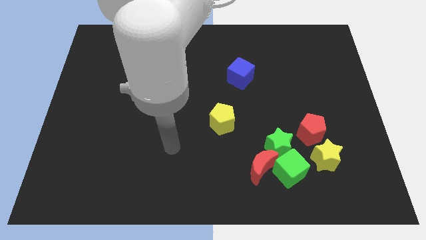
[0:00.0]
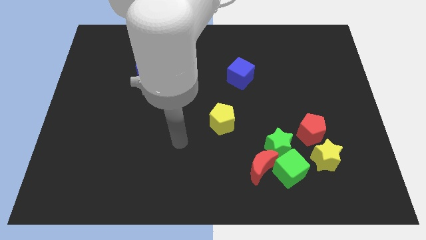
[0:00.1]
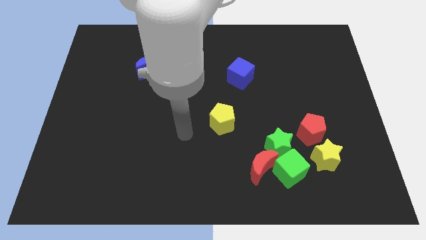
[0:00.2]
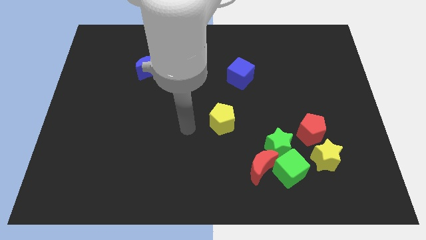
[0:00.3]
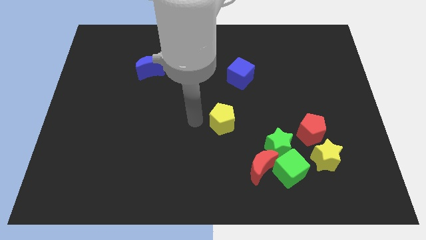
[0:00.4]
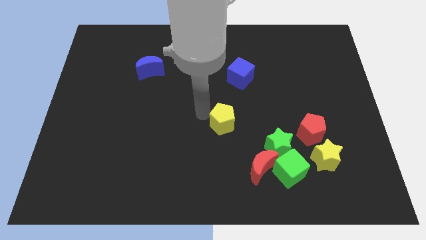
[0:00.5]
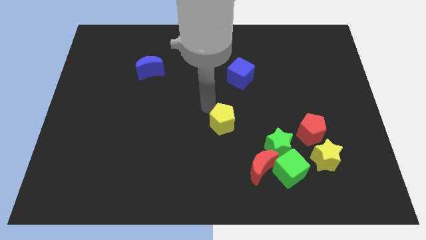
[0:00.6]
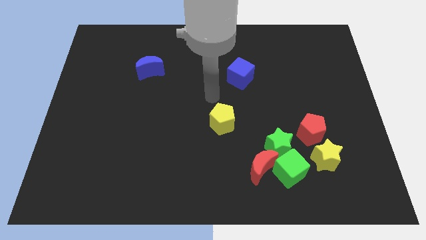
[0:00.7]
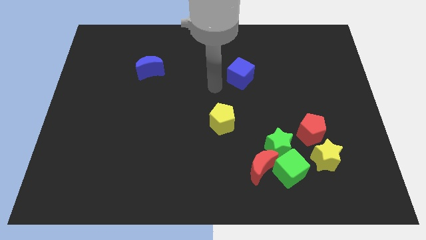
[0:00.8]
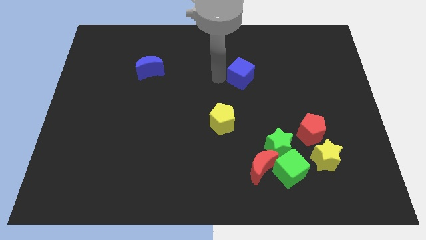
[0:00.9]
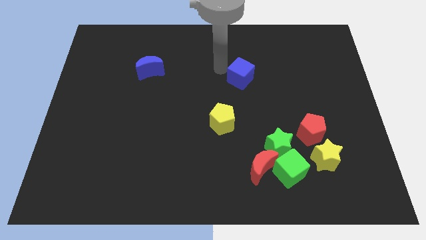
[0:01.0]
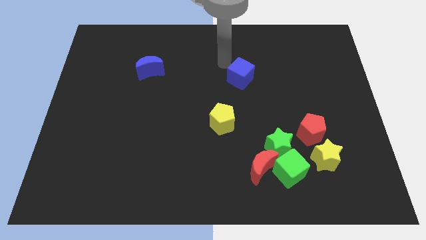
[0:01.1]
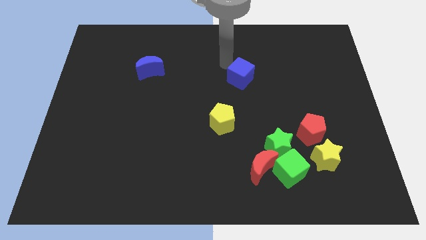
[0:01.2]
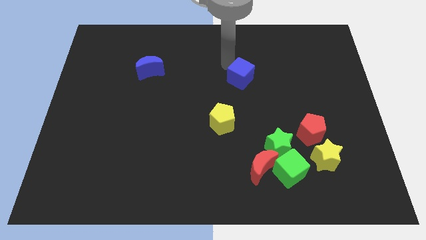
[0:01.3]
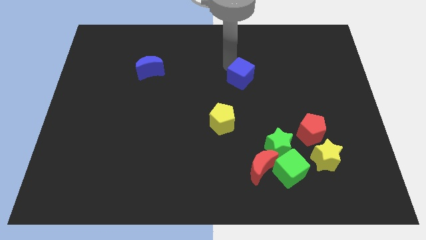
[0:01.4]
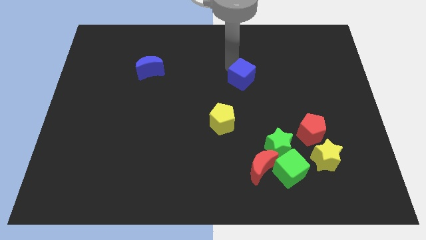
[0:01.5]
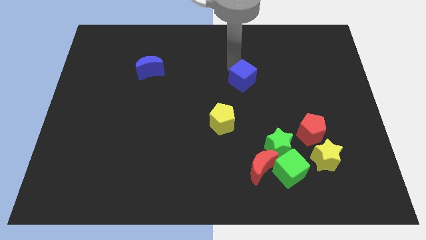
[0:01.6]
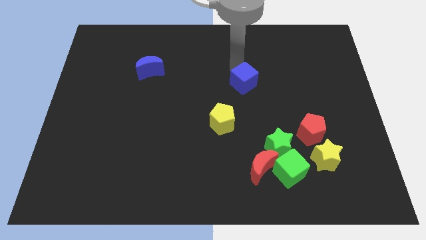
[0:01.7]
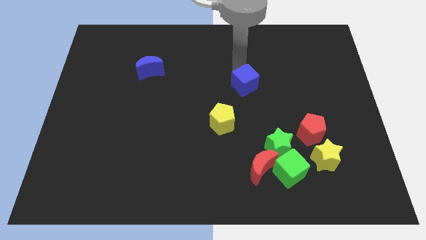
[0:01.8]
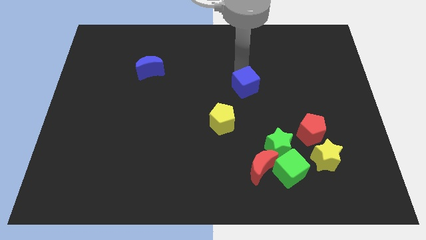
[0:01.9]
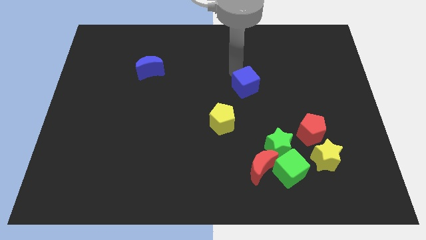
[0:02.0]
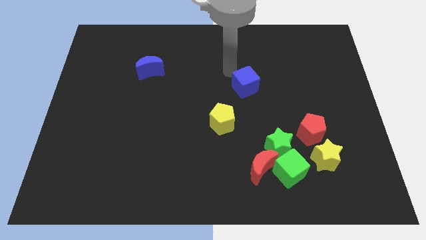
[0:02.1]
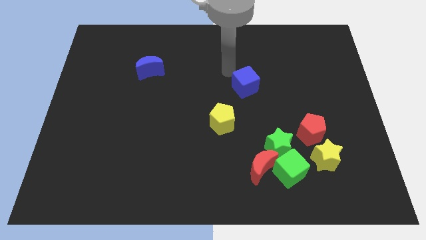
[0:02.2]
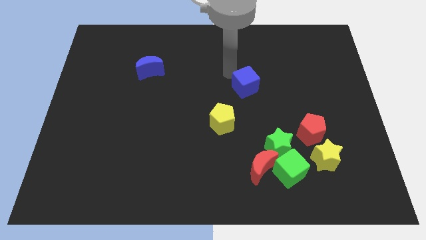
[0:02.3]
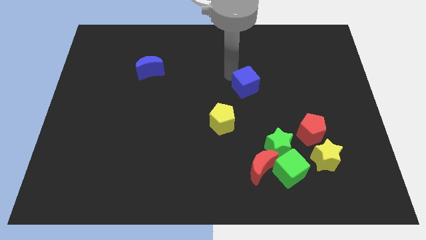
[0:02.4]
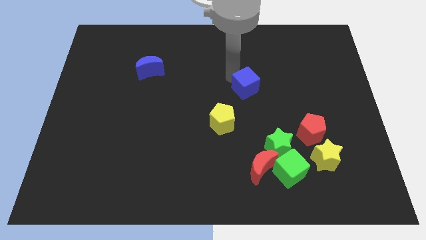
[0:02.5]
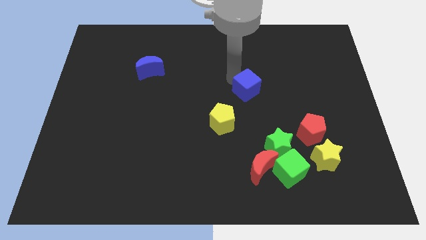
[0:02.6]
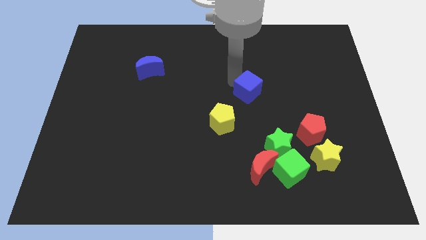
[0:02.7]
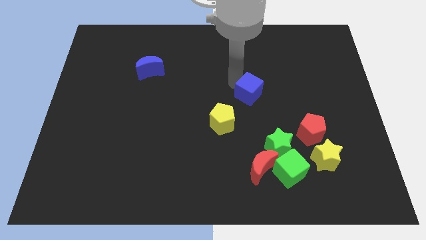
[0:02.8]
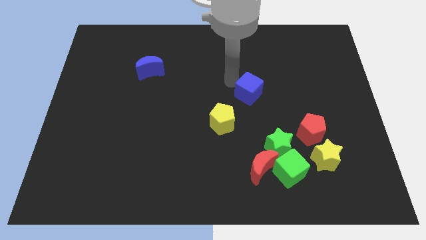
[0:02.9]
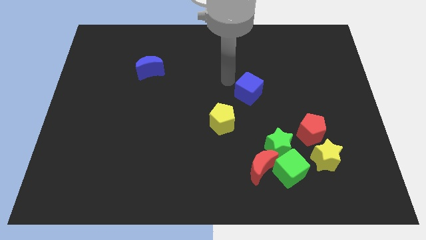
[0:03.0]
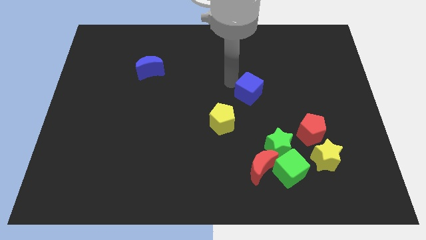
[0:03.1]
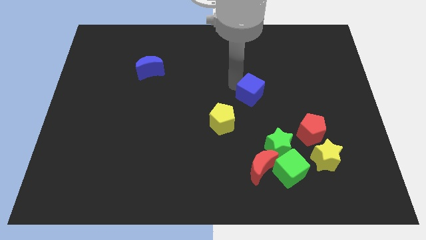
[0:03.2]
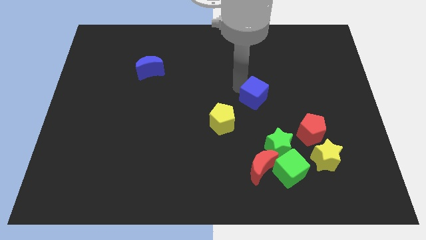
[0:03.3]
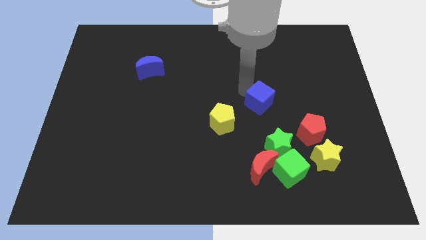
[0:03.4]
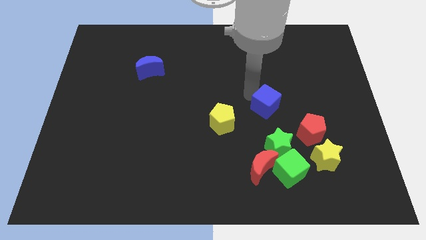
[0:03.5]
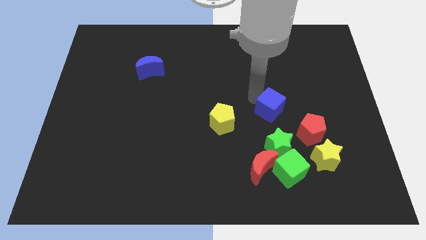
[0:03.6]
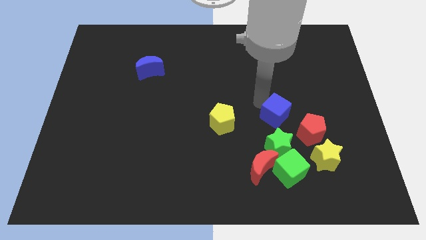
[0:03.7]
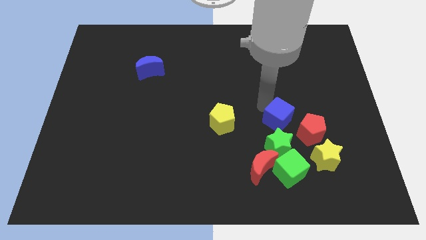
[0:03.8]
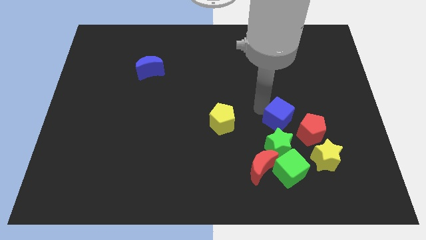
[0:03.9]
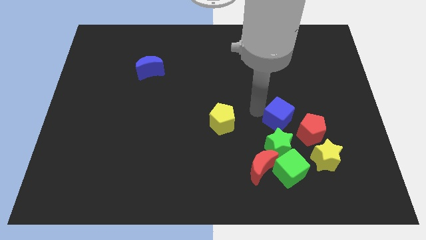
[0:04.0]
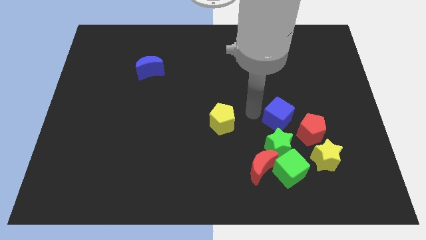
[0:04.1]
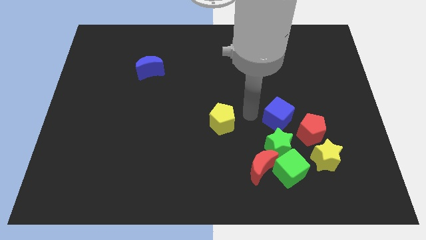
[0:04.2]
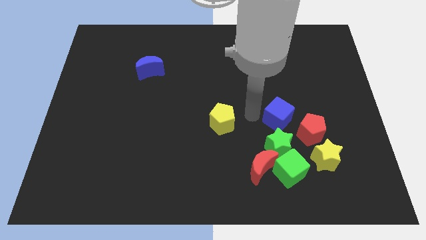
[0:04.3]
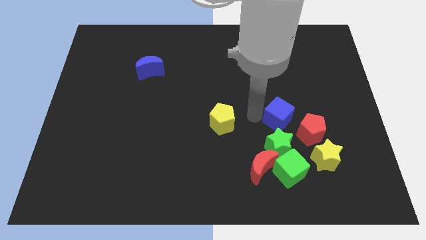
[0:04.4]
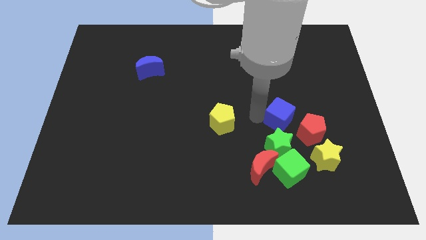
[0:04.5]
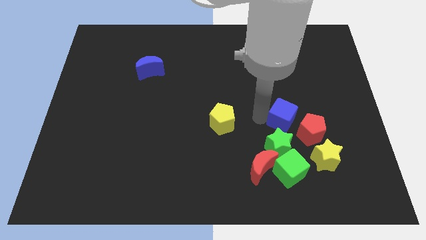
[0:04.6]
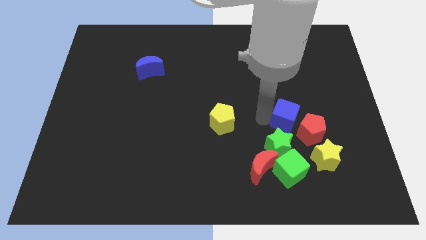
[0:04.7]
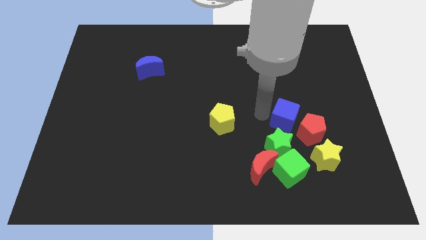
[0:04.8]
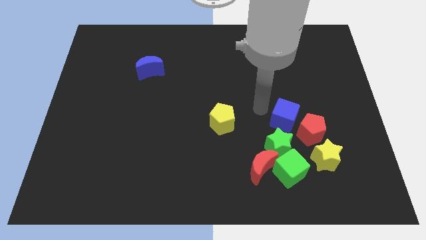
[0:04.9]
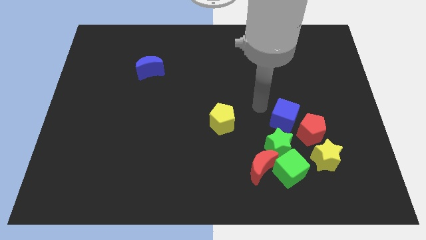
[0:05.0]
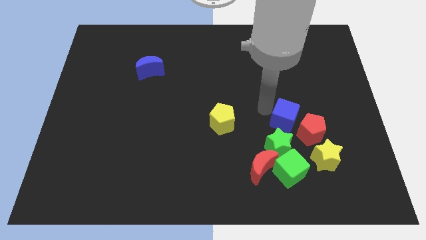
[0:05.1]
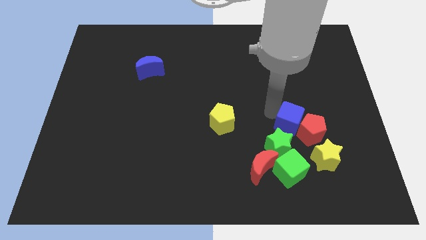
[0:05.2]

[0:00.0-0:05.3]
push the blue cube next to the red pentagon

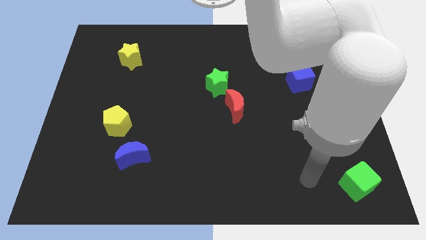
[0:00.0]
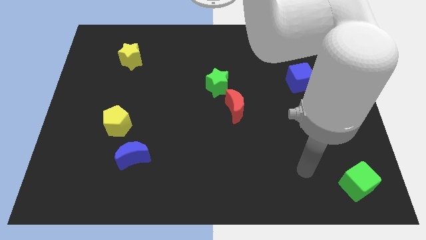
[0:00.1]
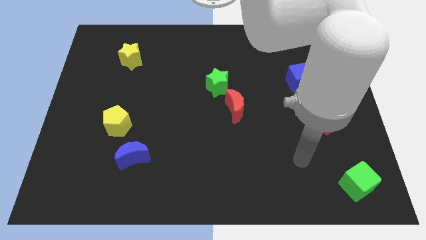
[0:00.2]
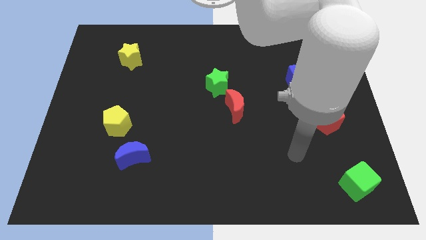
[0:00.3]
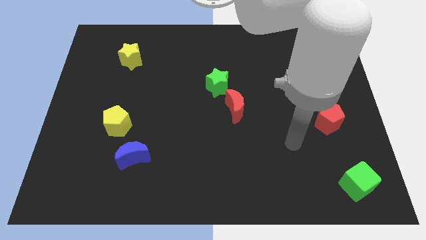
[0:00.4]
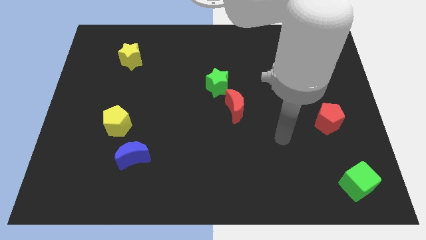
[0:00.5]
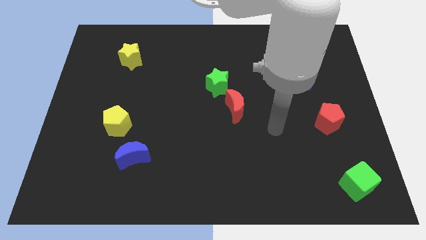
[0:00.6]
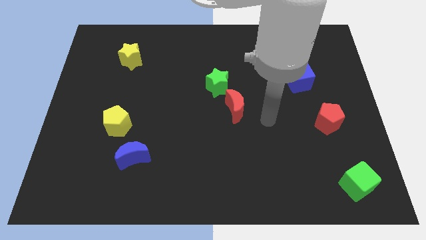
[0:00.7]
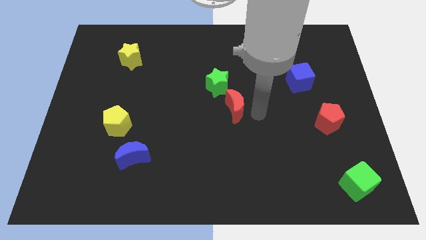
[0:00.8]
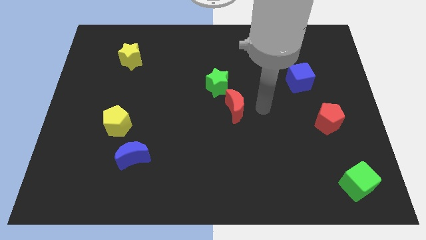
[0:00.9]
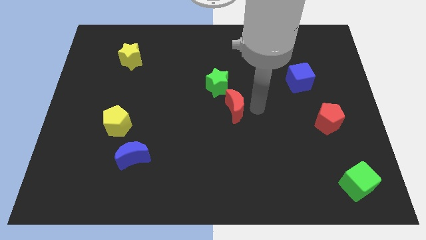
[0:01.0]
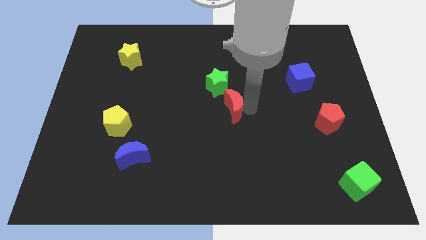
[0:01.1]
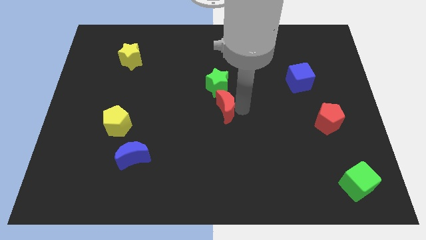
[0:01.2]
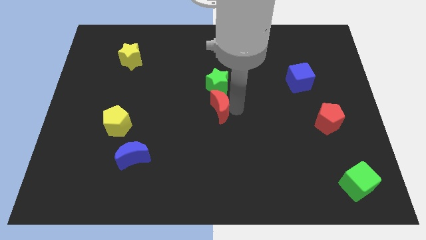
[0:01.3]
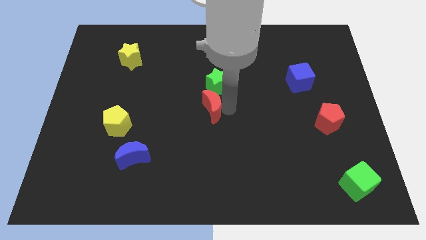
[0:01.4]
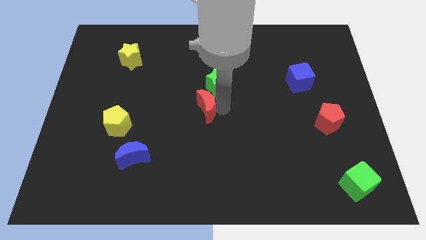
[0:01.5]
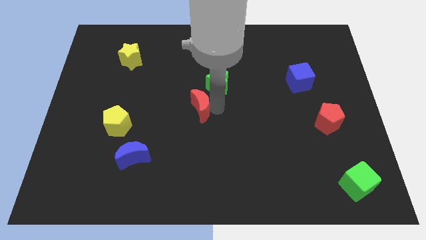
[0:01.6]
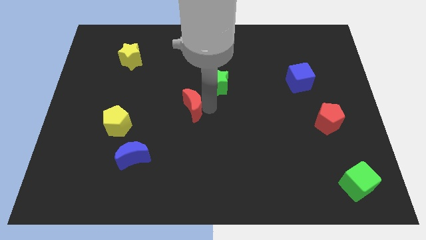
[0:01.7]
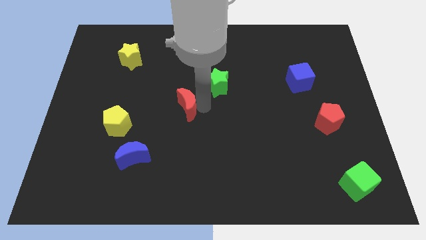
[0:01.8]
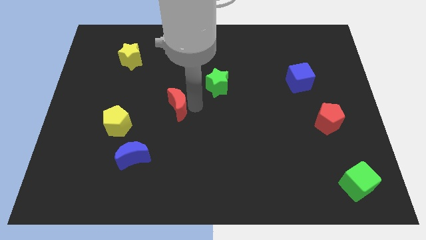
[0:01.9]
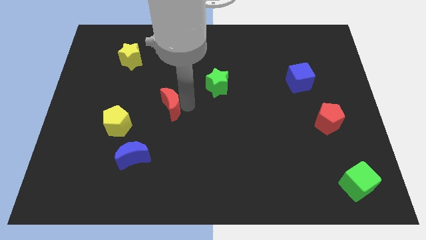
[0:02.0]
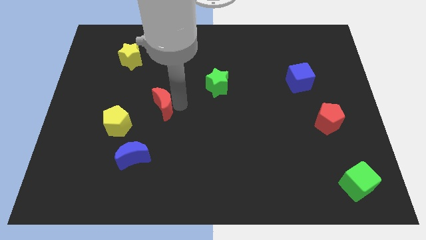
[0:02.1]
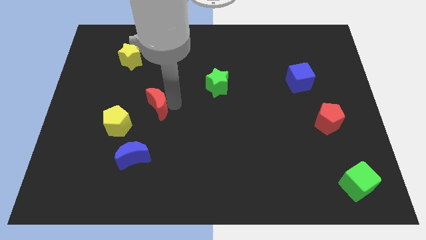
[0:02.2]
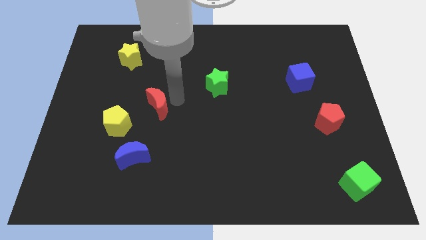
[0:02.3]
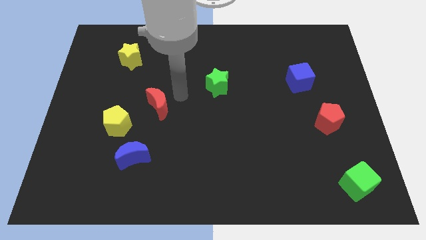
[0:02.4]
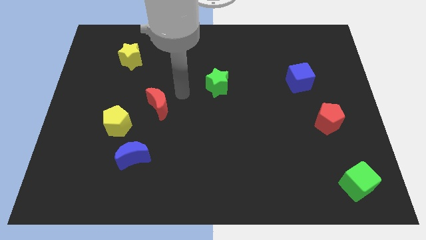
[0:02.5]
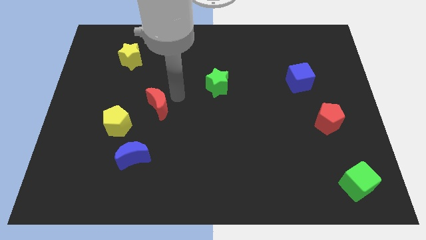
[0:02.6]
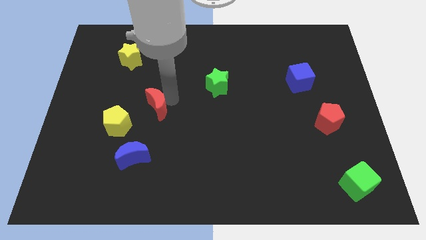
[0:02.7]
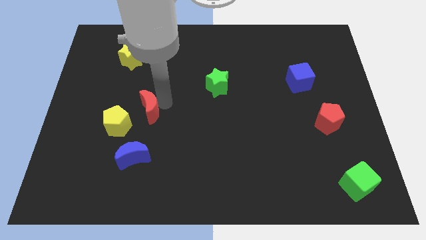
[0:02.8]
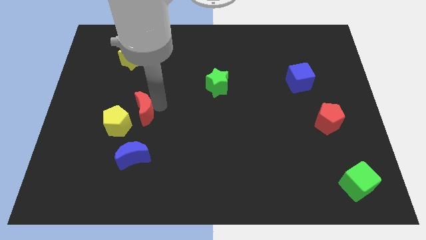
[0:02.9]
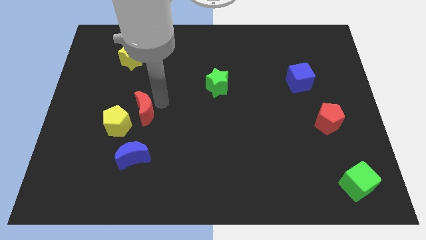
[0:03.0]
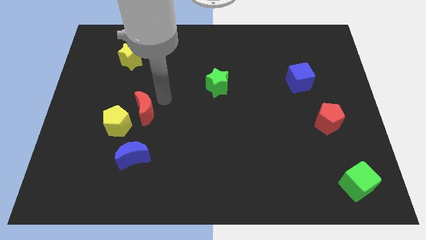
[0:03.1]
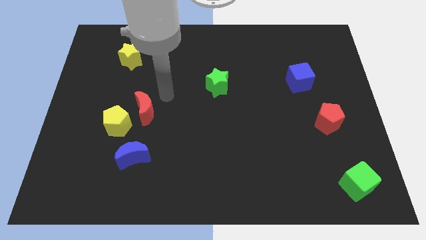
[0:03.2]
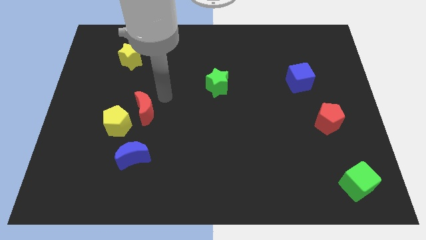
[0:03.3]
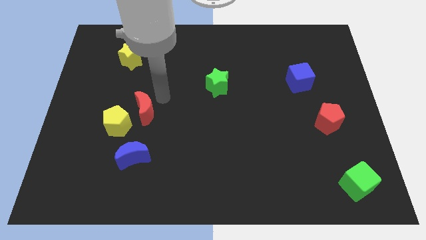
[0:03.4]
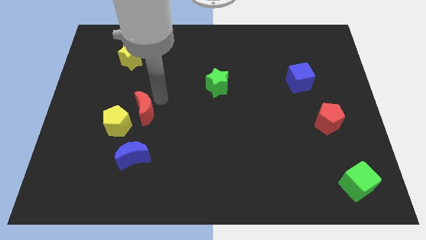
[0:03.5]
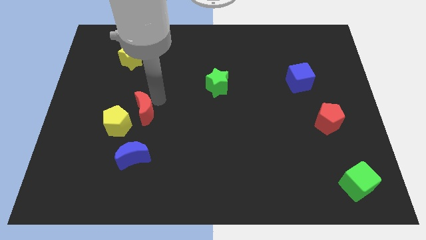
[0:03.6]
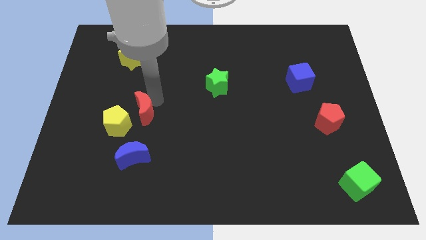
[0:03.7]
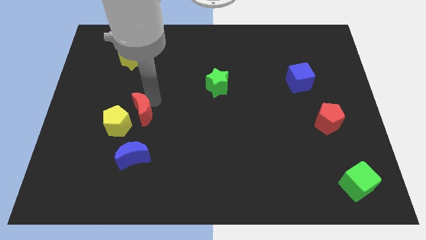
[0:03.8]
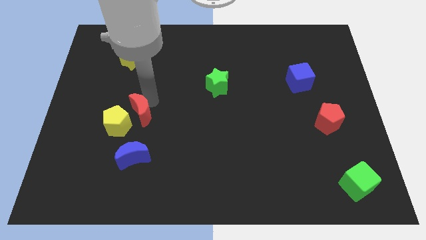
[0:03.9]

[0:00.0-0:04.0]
slide the red moon close to the yellow pentagon
